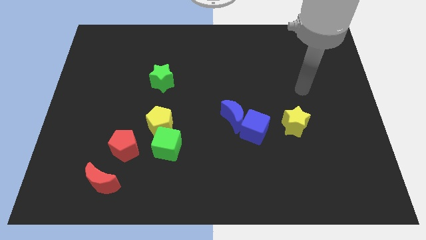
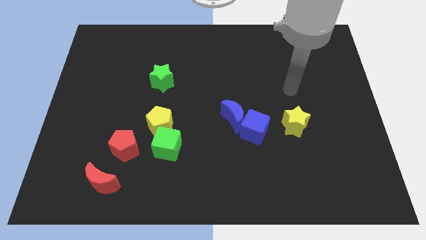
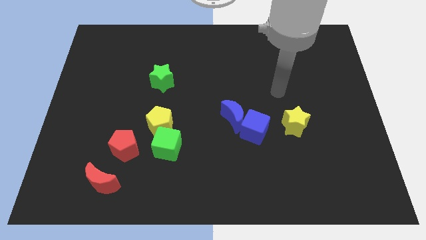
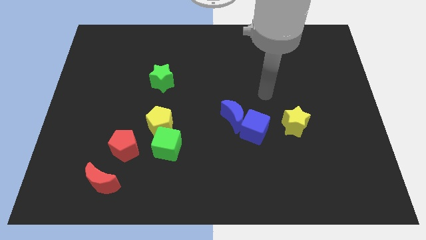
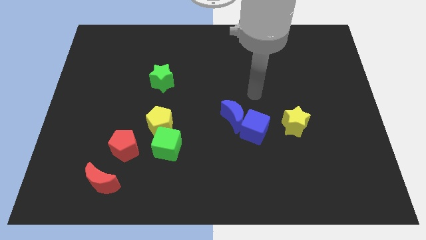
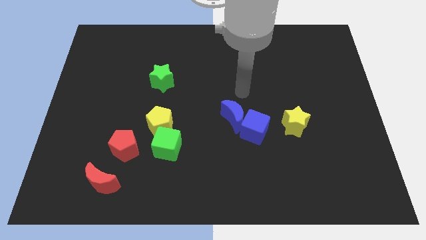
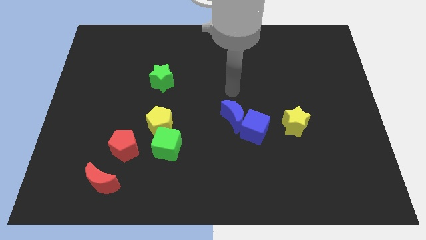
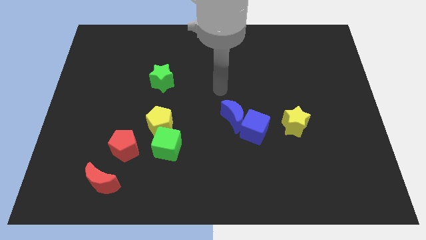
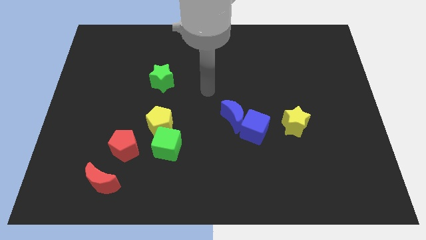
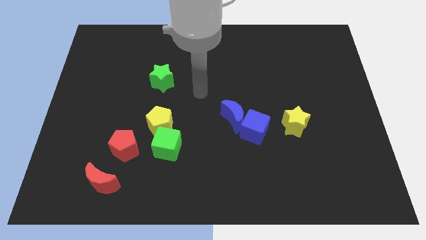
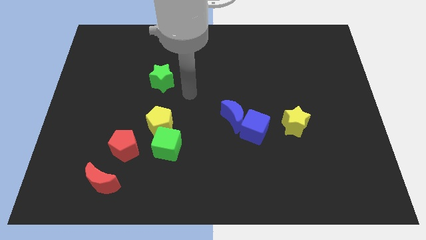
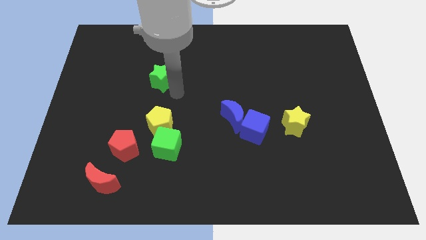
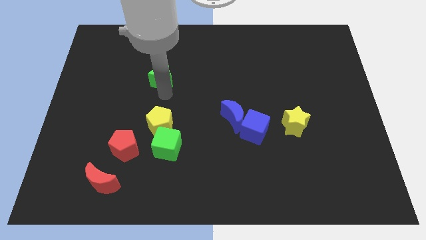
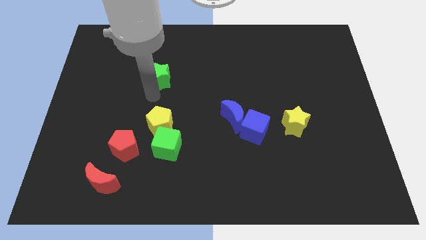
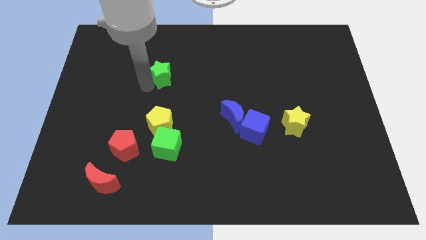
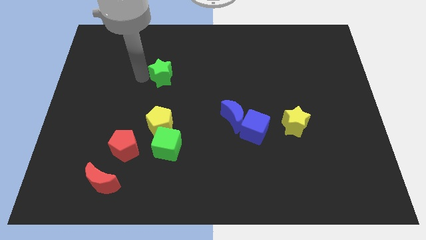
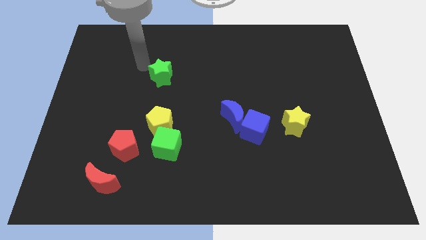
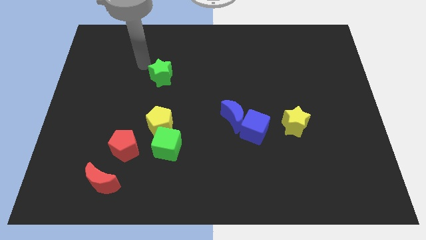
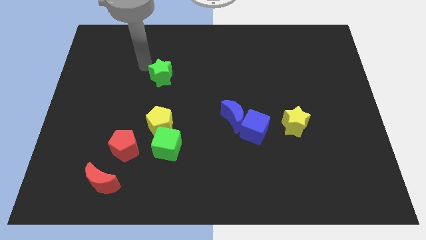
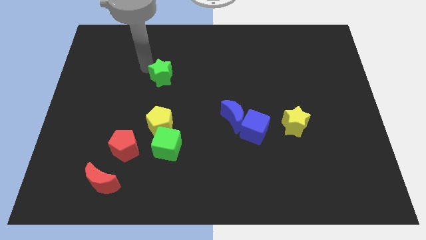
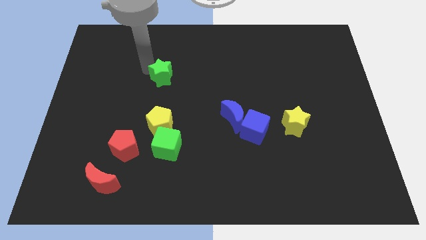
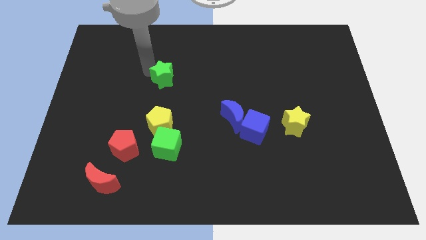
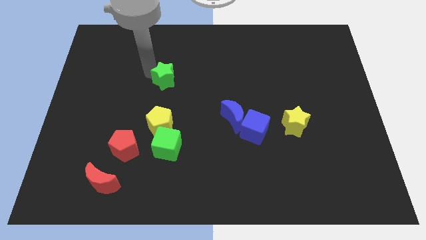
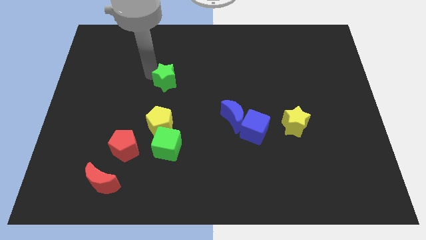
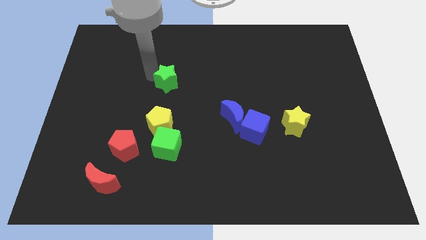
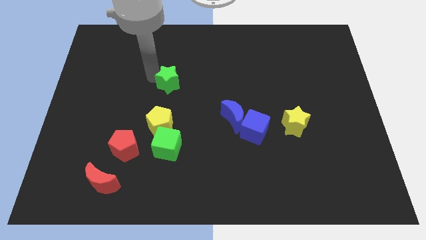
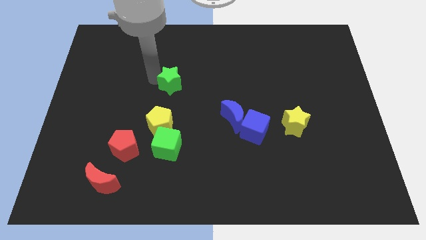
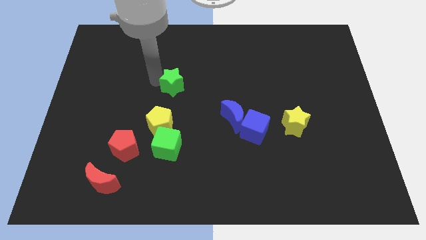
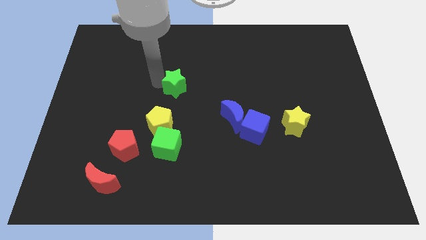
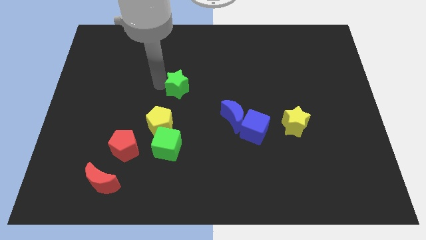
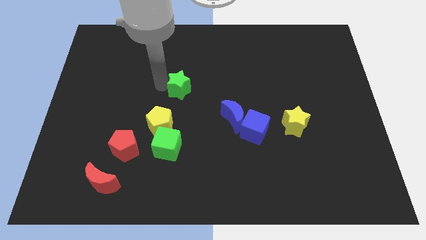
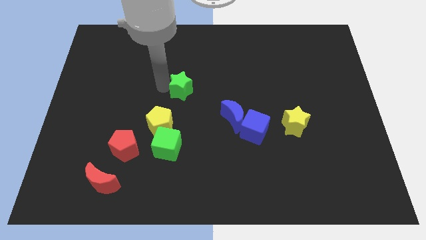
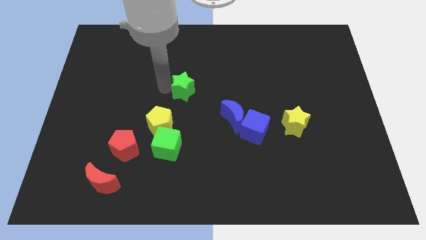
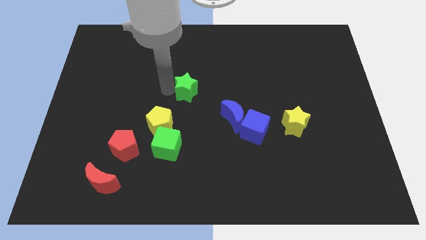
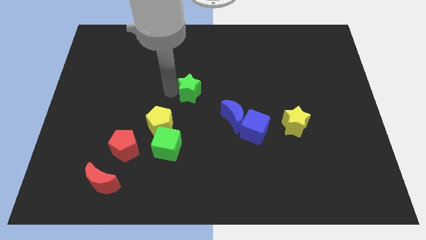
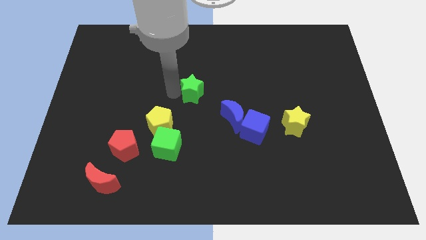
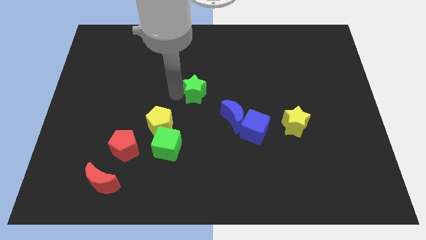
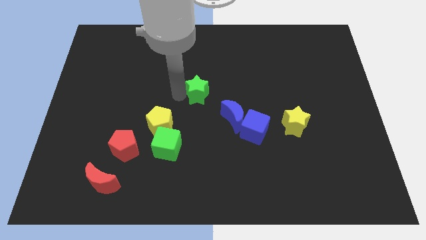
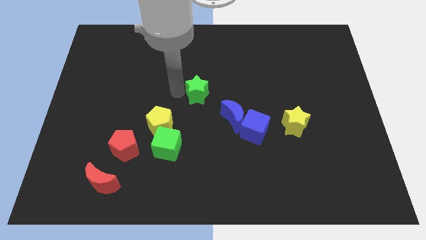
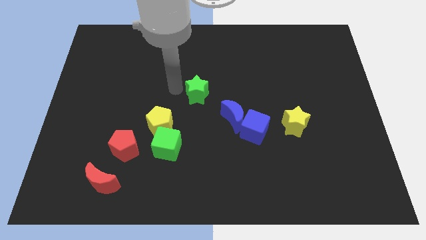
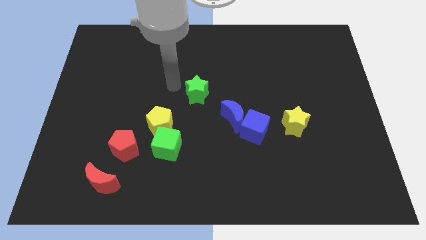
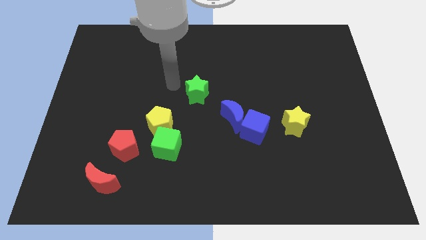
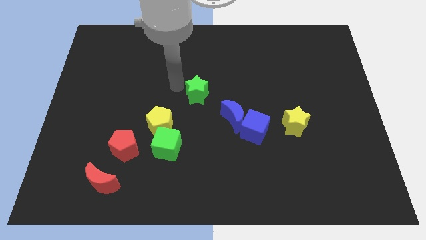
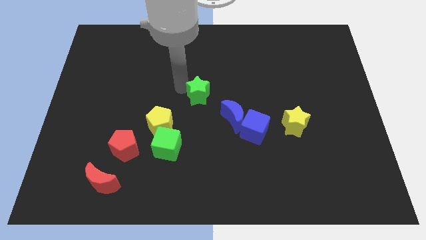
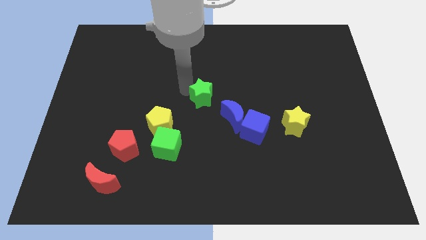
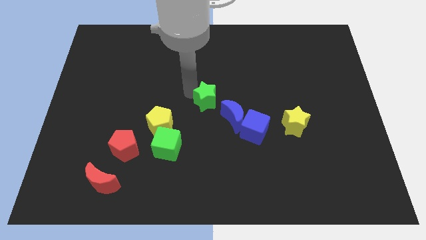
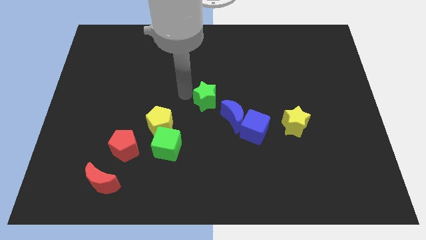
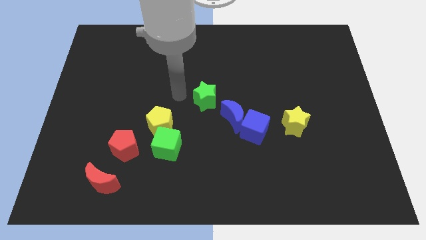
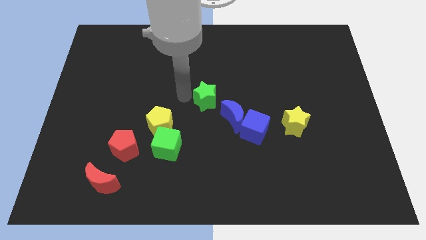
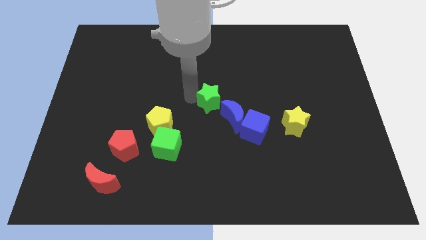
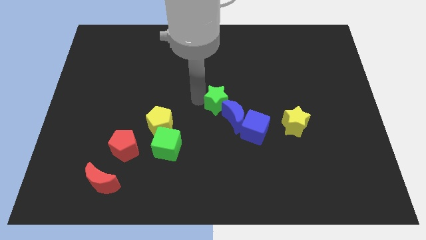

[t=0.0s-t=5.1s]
move the green star close to the blue moon

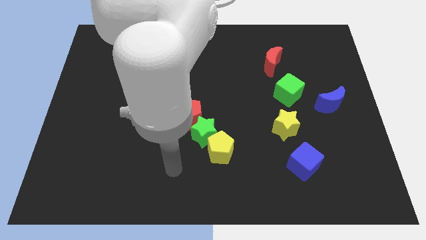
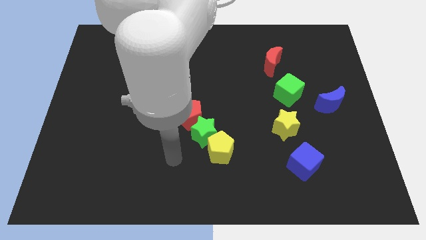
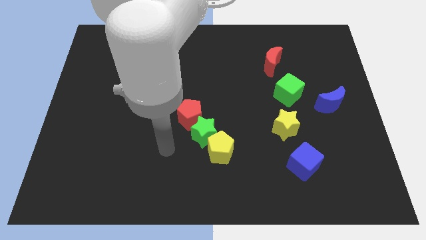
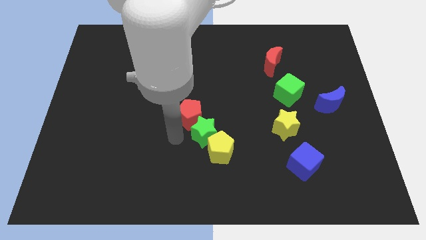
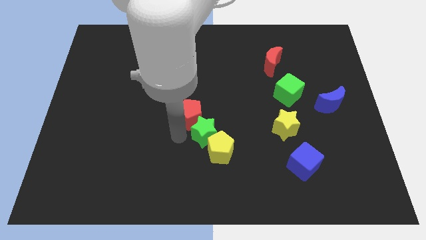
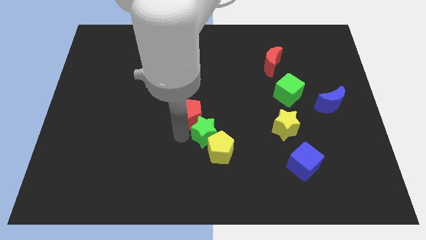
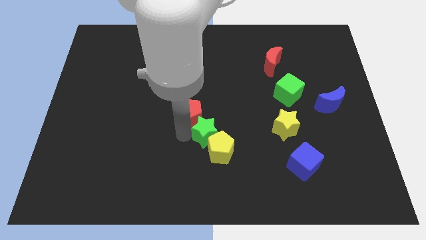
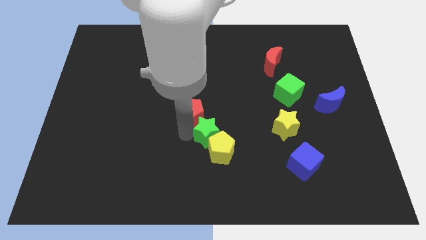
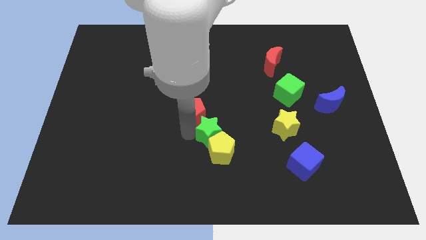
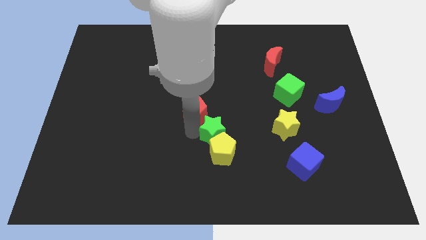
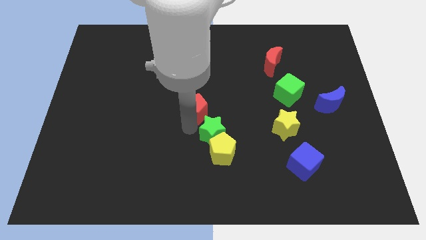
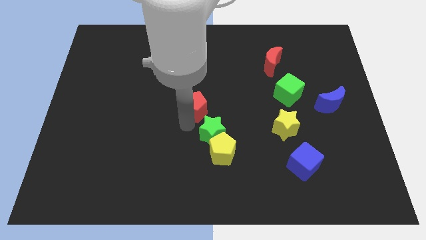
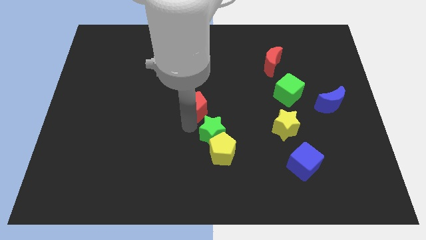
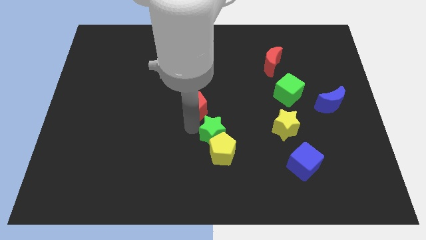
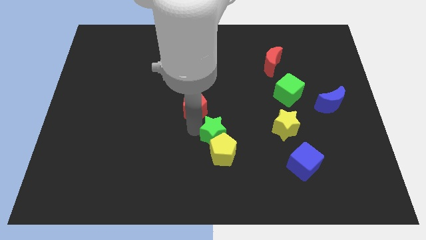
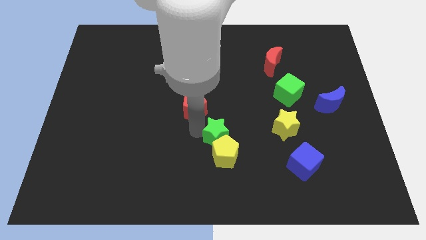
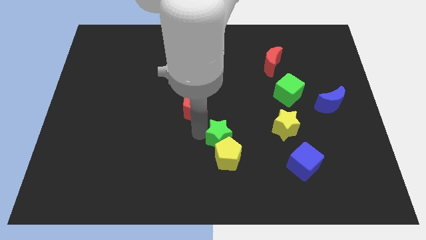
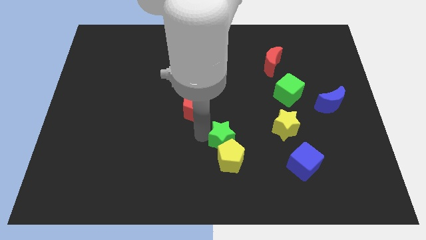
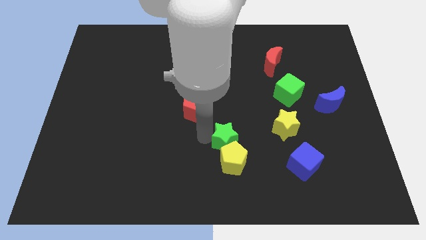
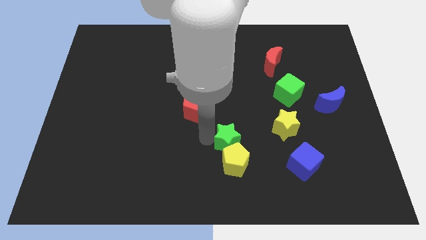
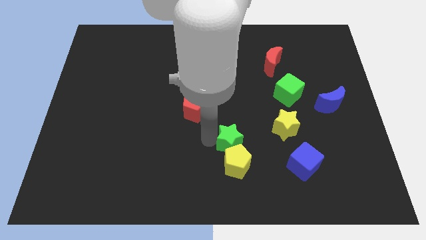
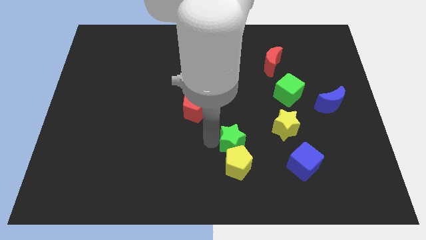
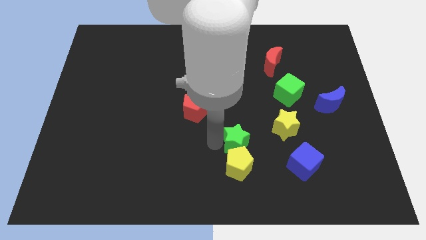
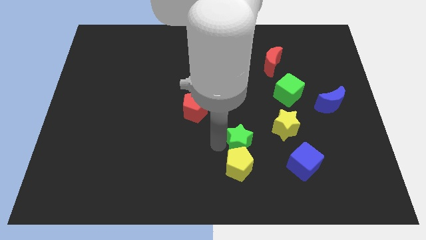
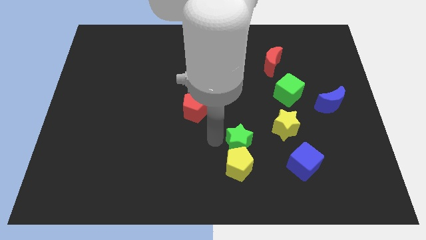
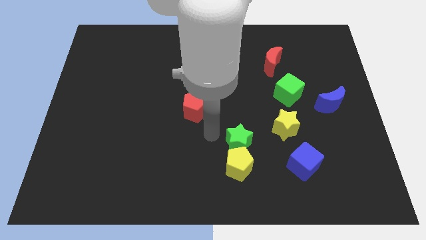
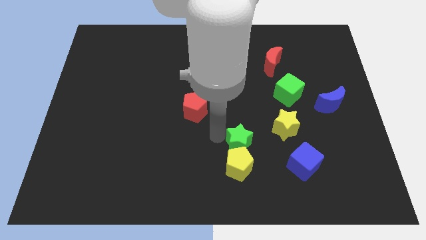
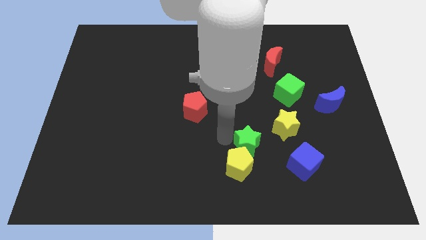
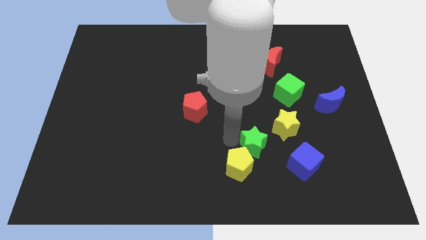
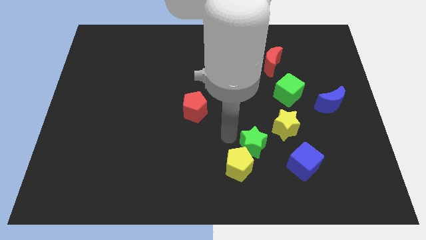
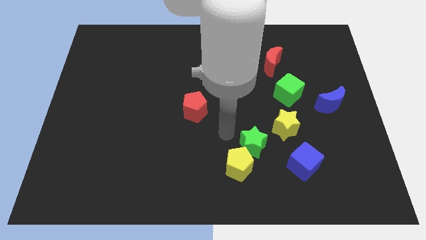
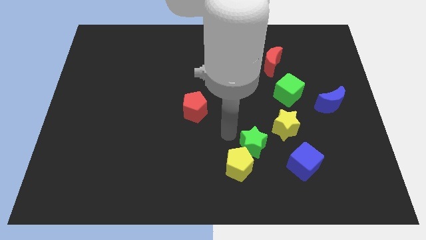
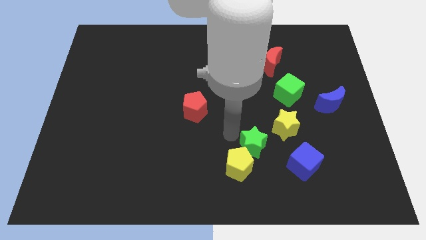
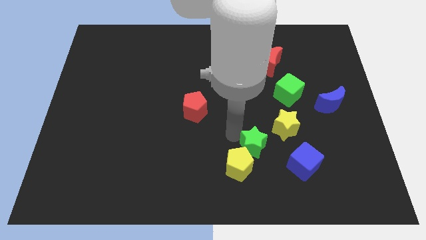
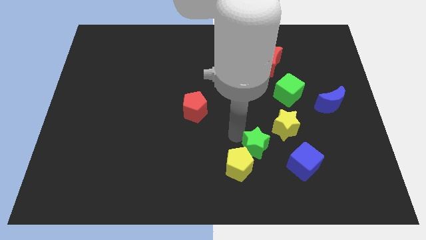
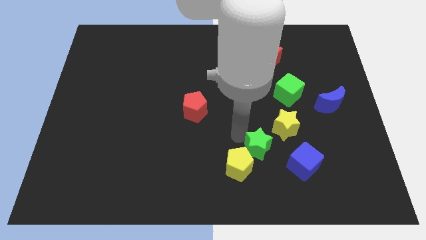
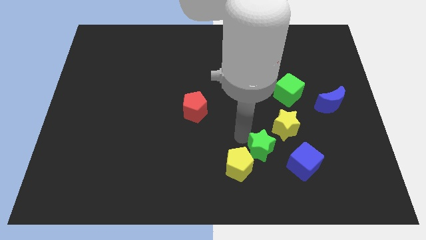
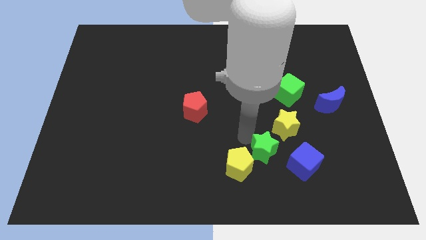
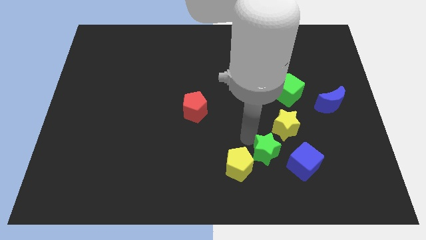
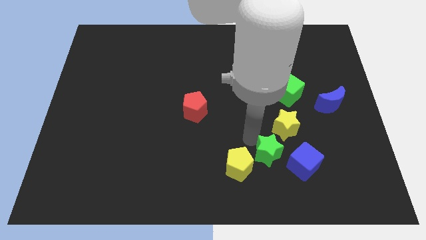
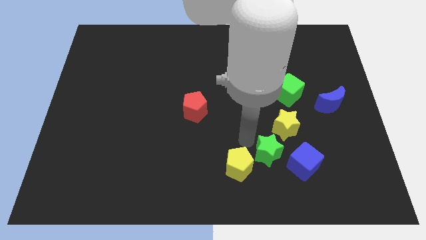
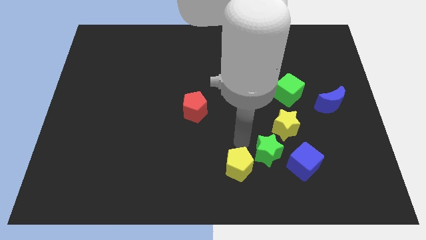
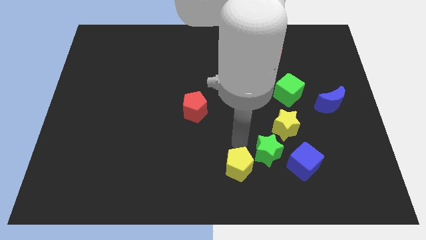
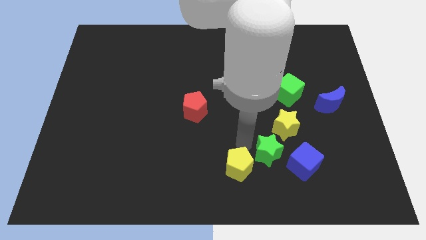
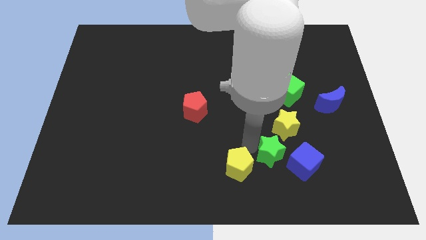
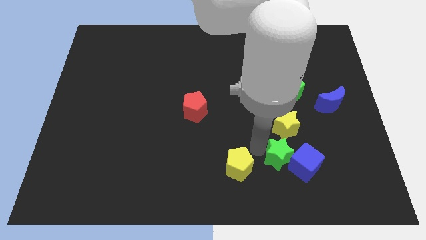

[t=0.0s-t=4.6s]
push the green star towards the blue cube
